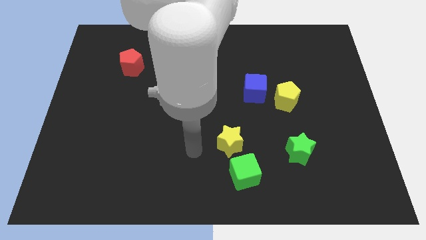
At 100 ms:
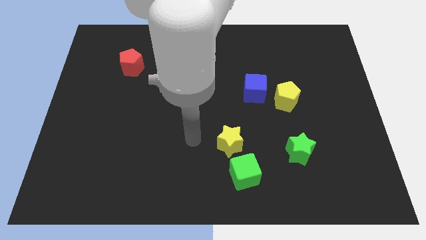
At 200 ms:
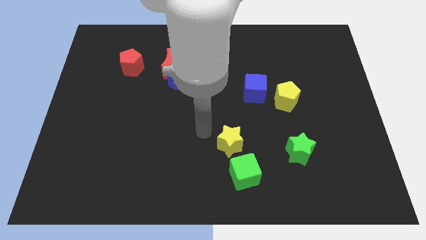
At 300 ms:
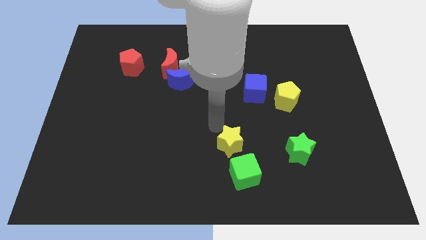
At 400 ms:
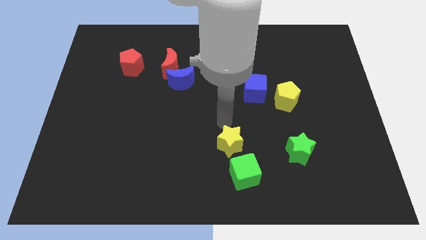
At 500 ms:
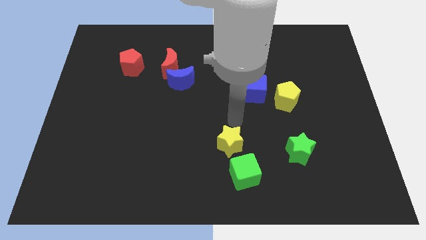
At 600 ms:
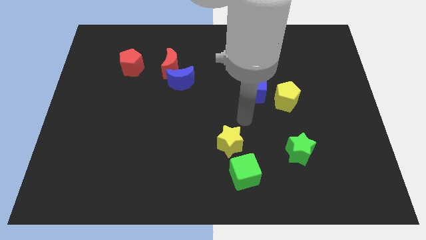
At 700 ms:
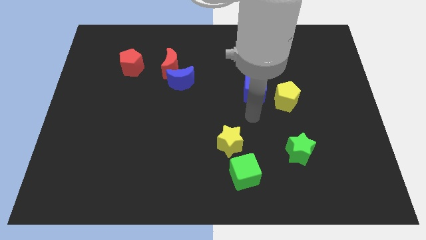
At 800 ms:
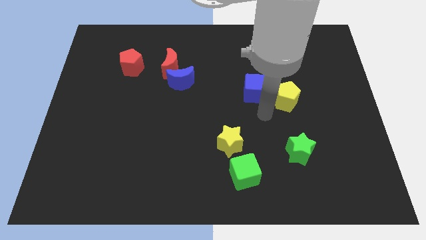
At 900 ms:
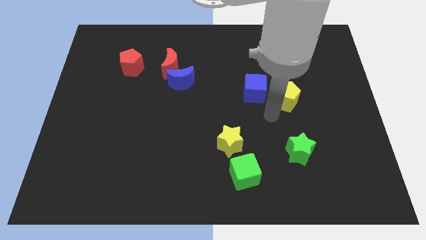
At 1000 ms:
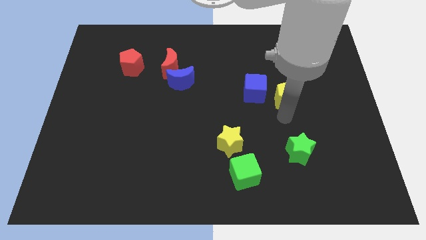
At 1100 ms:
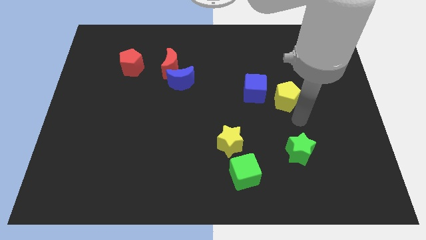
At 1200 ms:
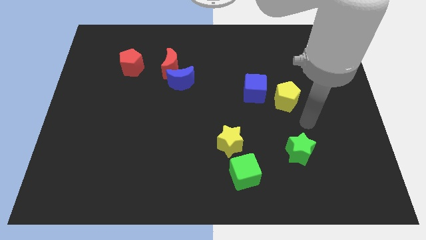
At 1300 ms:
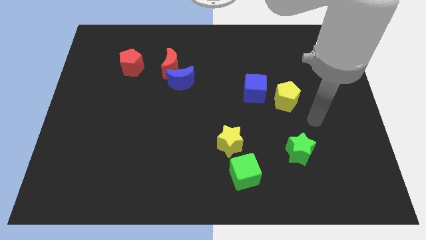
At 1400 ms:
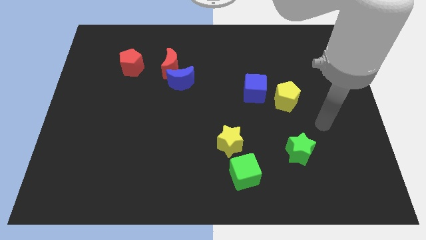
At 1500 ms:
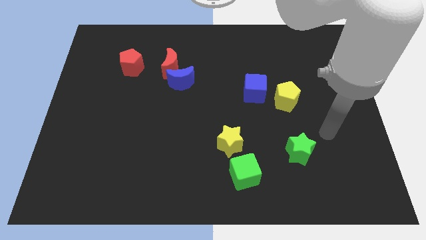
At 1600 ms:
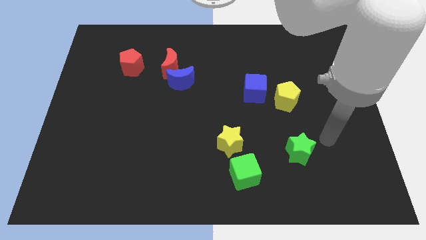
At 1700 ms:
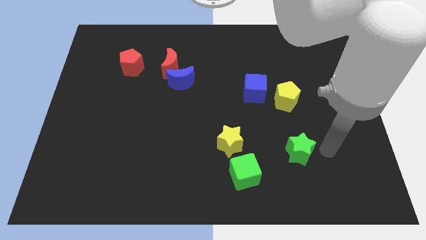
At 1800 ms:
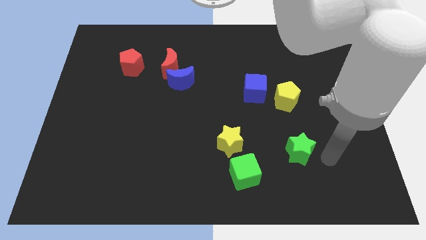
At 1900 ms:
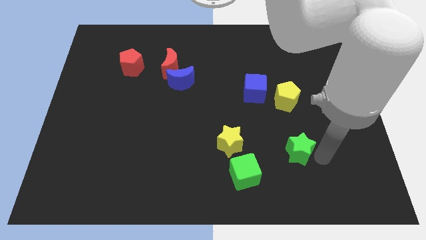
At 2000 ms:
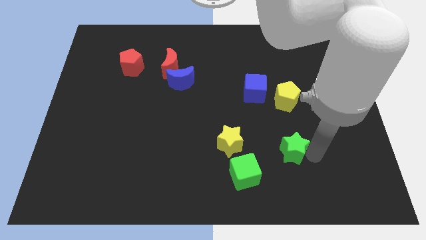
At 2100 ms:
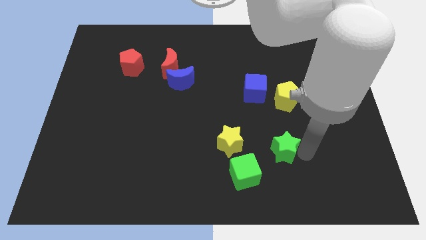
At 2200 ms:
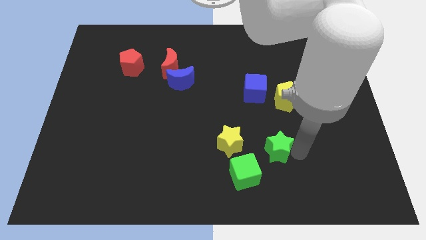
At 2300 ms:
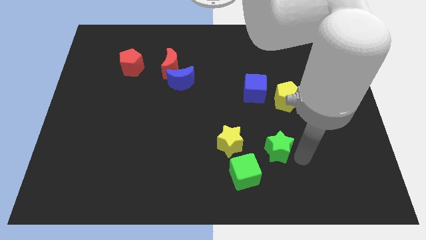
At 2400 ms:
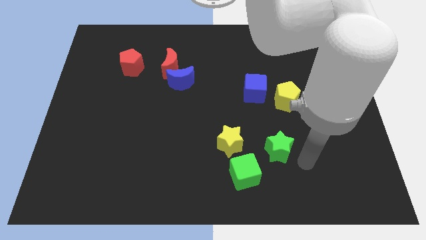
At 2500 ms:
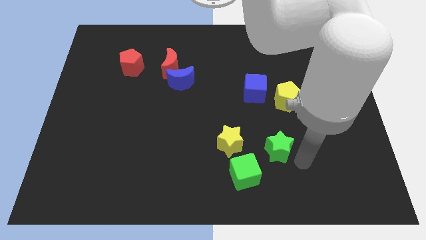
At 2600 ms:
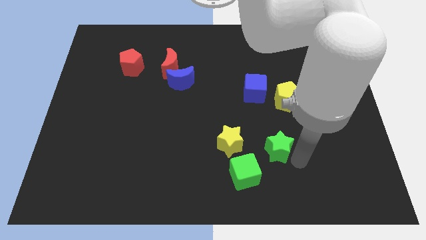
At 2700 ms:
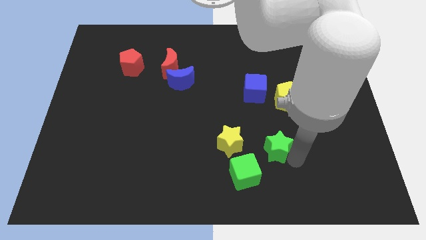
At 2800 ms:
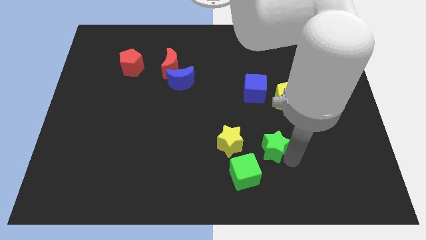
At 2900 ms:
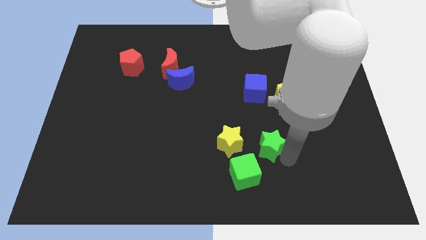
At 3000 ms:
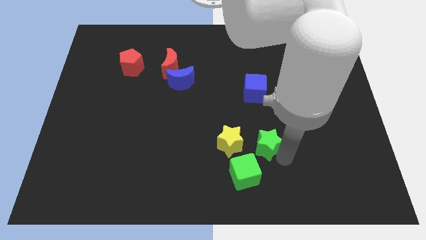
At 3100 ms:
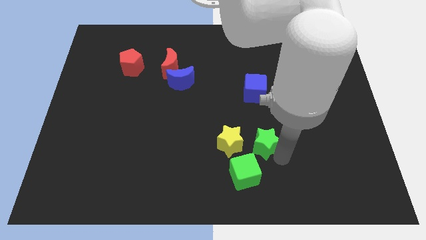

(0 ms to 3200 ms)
slide the green star to the left a little bit

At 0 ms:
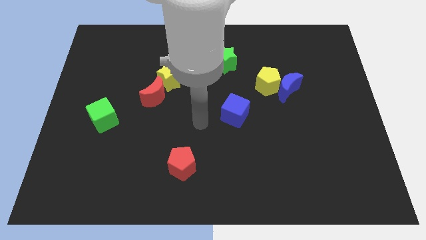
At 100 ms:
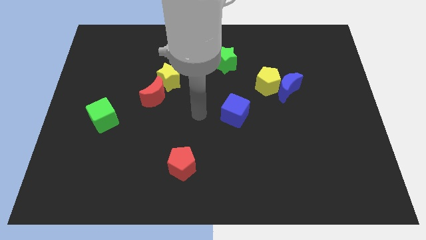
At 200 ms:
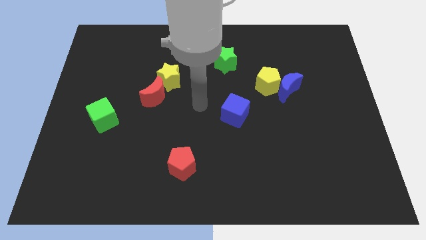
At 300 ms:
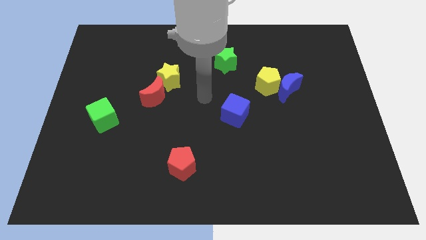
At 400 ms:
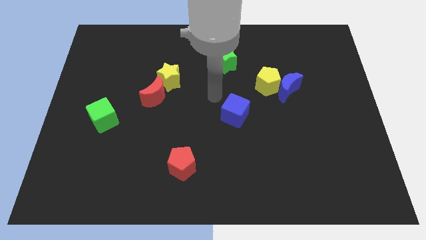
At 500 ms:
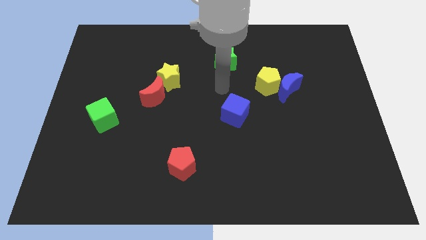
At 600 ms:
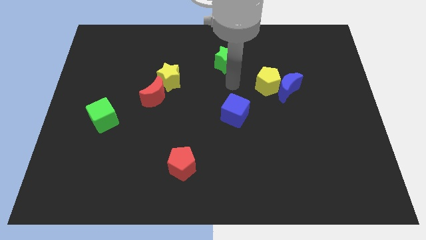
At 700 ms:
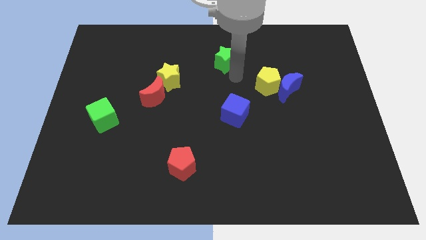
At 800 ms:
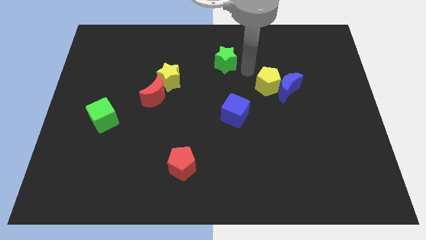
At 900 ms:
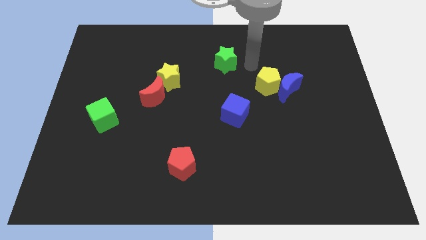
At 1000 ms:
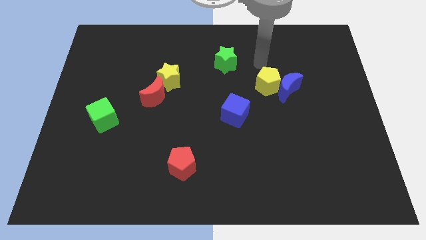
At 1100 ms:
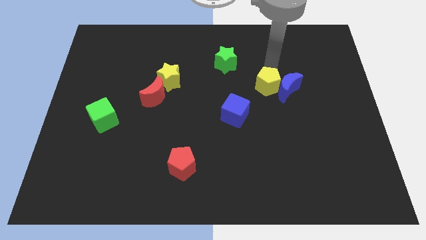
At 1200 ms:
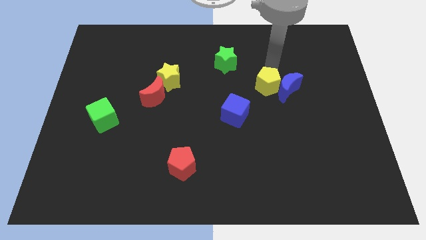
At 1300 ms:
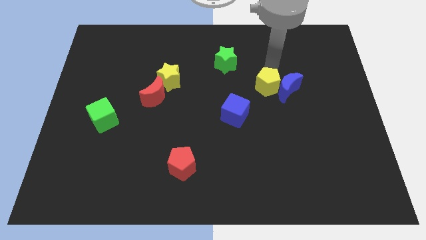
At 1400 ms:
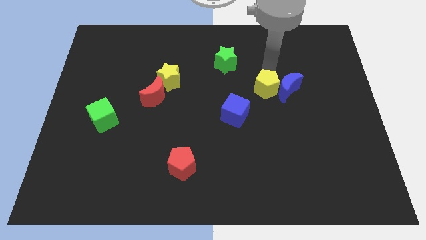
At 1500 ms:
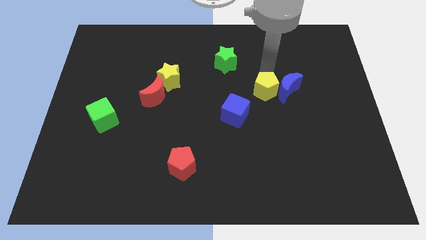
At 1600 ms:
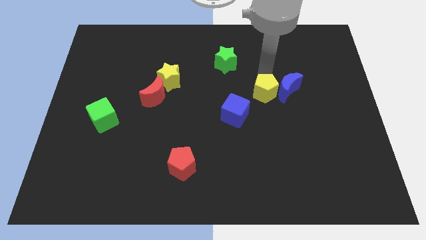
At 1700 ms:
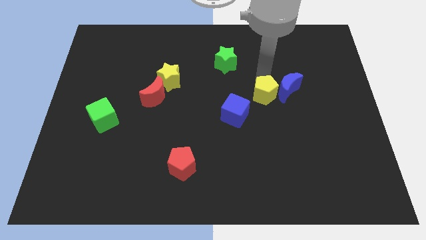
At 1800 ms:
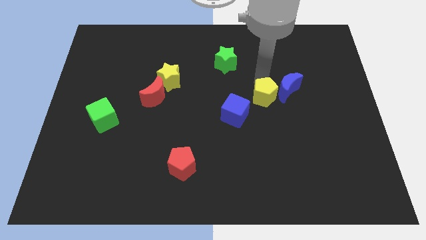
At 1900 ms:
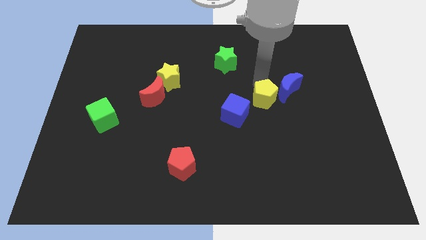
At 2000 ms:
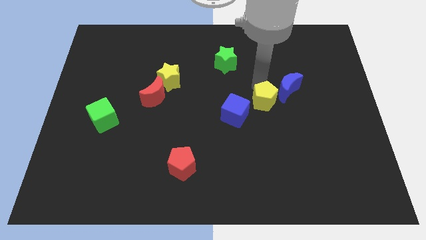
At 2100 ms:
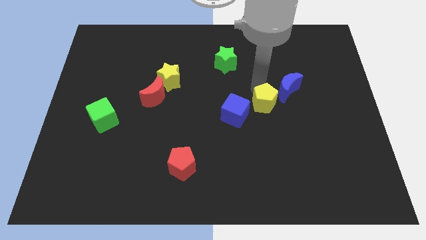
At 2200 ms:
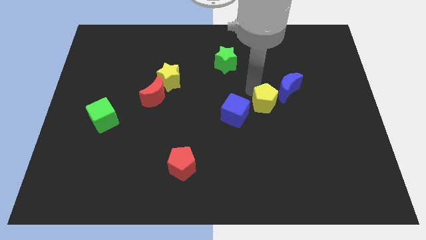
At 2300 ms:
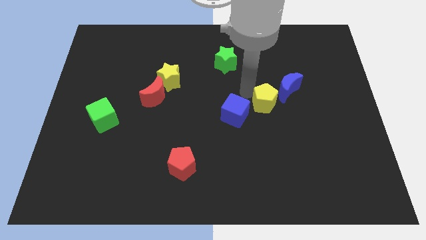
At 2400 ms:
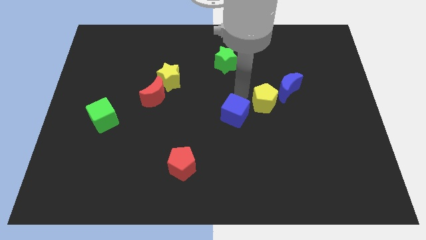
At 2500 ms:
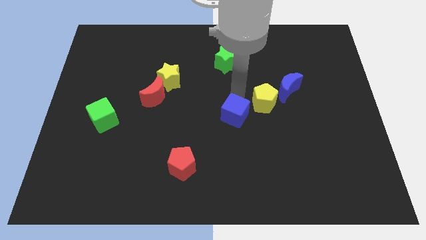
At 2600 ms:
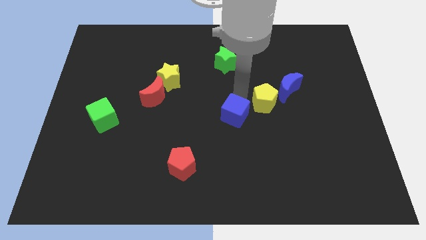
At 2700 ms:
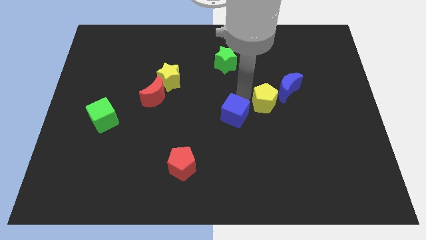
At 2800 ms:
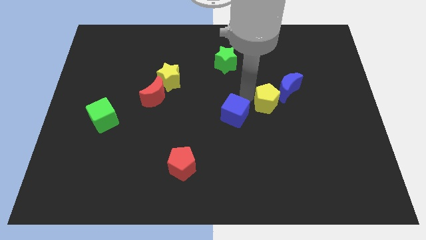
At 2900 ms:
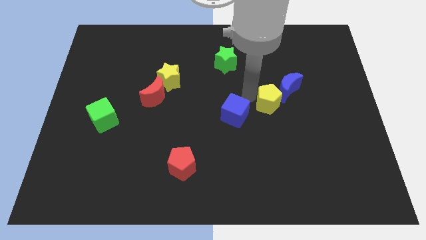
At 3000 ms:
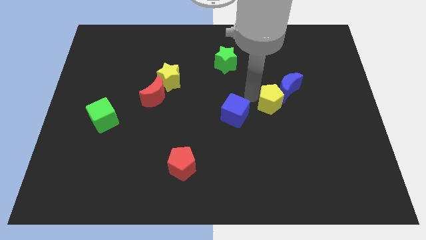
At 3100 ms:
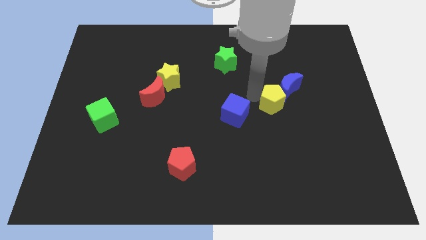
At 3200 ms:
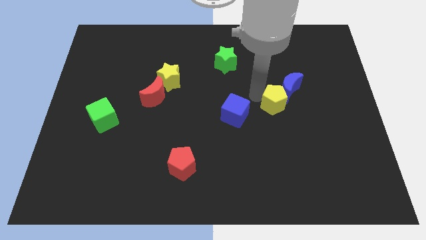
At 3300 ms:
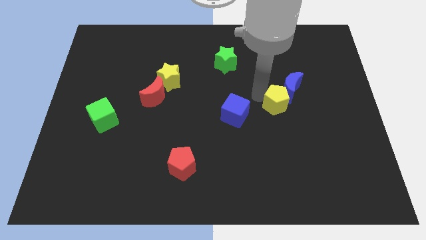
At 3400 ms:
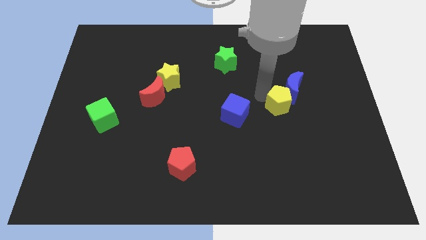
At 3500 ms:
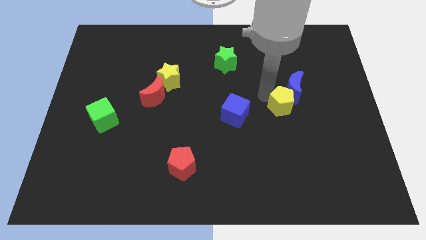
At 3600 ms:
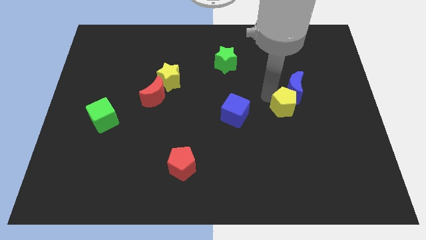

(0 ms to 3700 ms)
slightly move the yellow pentagon down and right

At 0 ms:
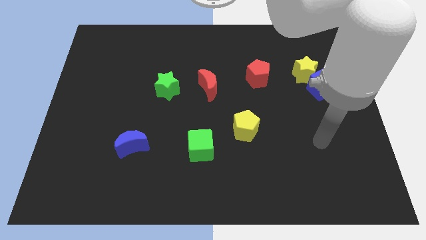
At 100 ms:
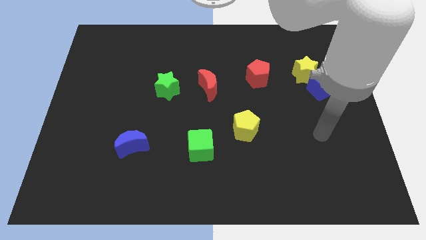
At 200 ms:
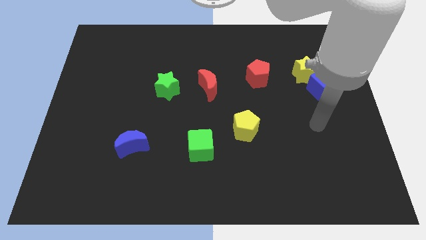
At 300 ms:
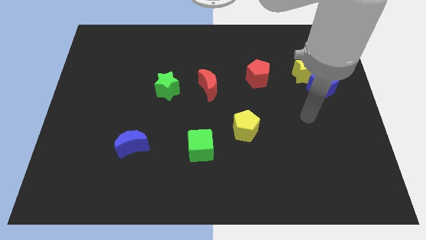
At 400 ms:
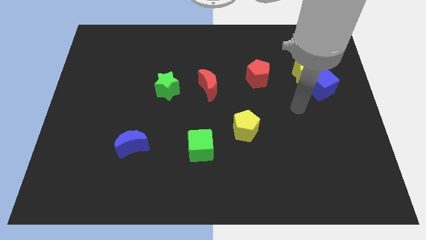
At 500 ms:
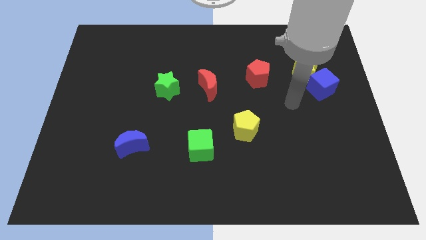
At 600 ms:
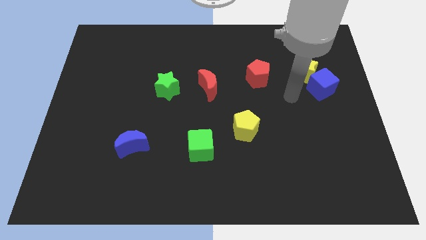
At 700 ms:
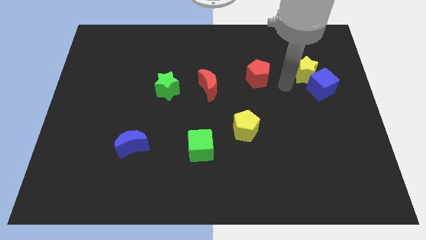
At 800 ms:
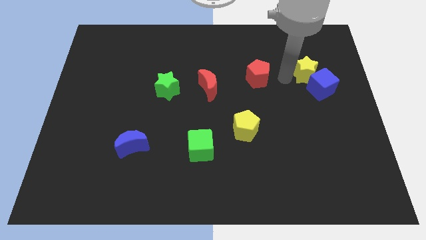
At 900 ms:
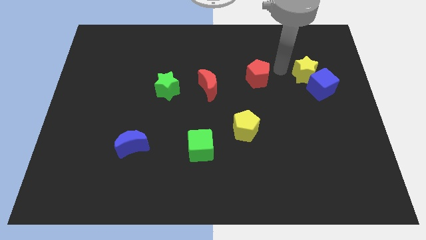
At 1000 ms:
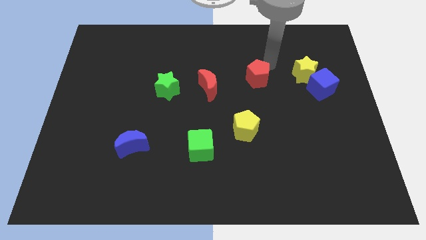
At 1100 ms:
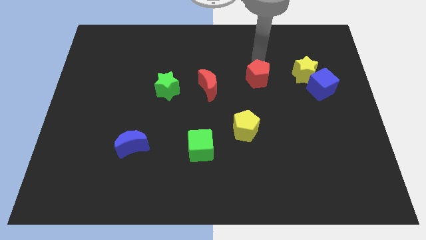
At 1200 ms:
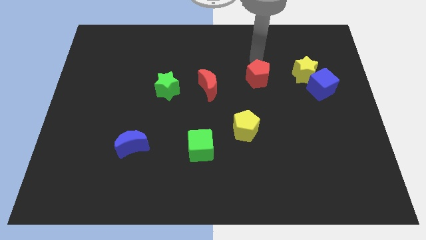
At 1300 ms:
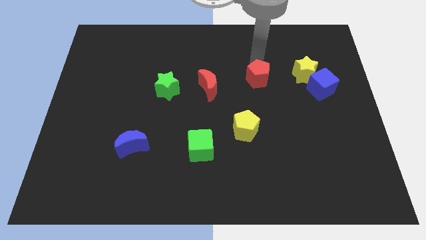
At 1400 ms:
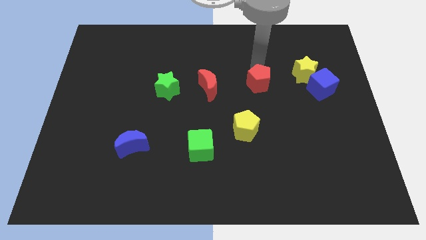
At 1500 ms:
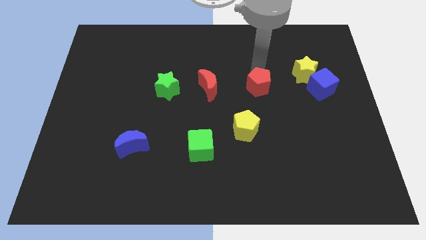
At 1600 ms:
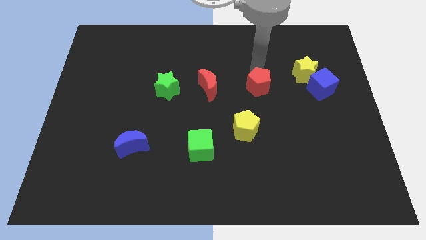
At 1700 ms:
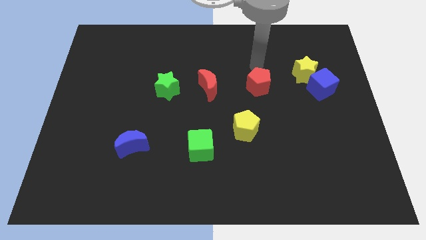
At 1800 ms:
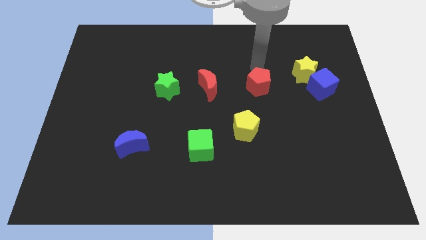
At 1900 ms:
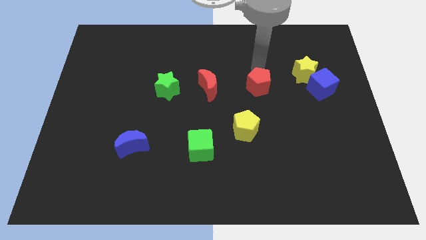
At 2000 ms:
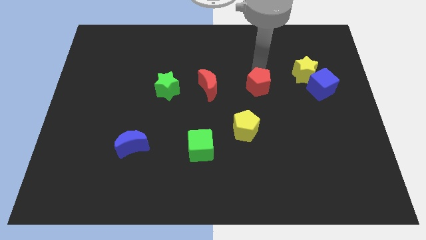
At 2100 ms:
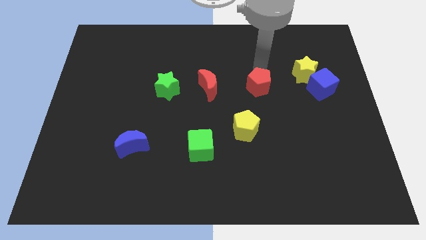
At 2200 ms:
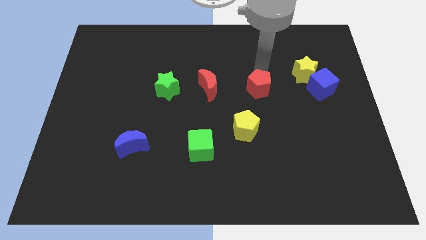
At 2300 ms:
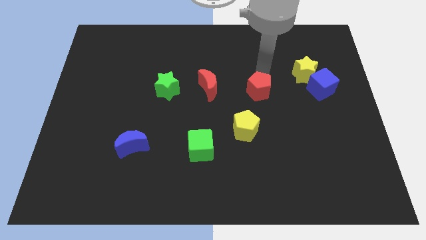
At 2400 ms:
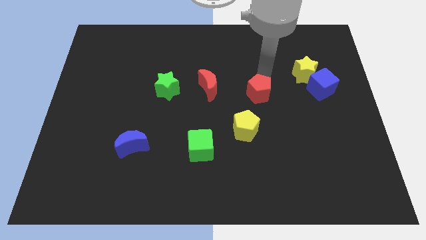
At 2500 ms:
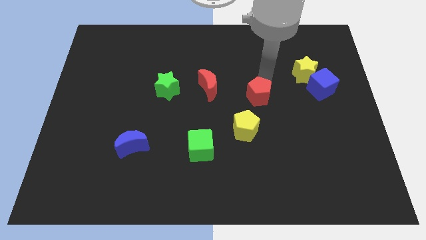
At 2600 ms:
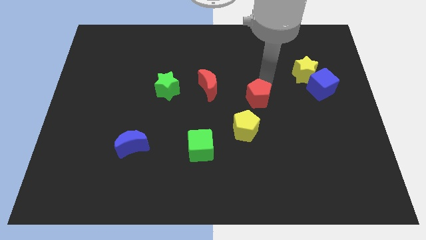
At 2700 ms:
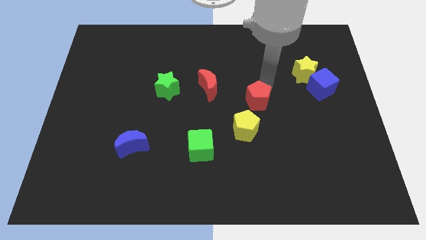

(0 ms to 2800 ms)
move the red pentagon down a little
